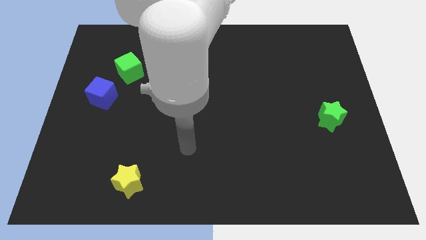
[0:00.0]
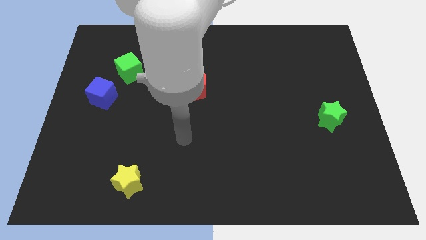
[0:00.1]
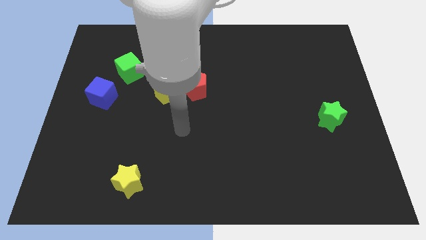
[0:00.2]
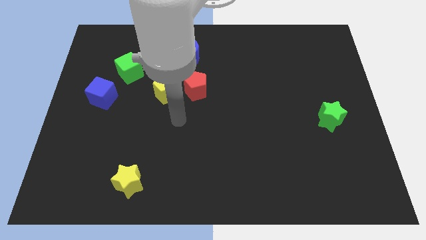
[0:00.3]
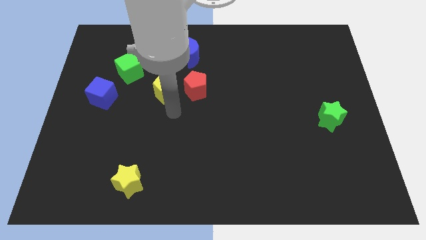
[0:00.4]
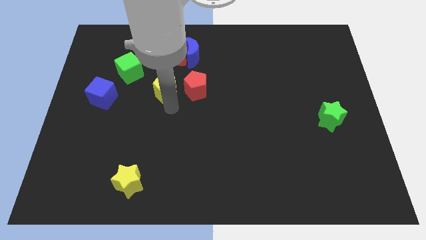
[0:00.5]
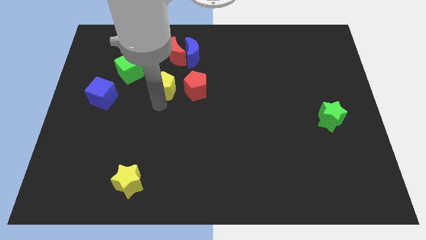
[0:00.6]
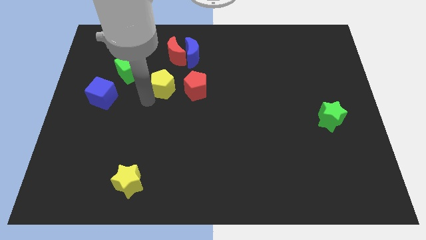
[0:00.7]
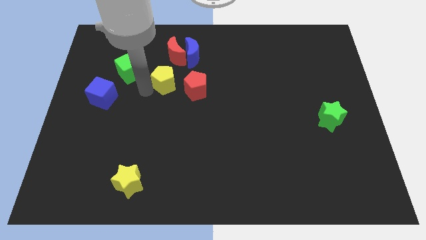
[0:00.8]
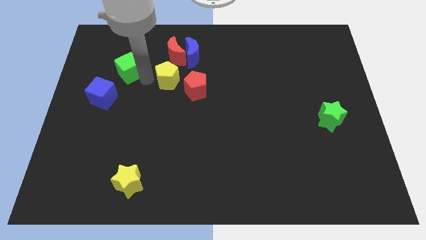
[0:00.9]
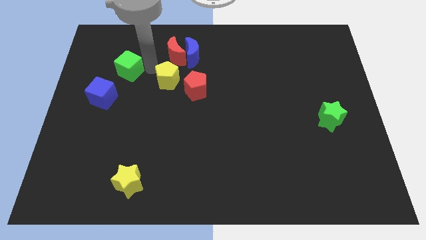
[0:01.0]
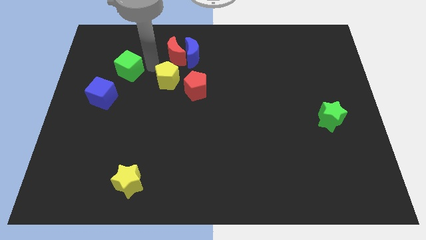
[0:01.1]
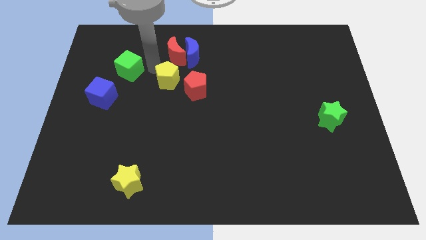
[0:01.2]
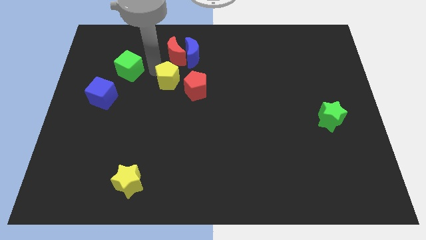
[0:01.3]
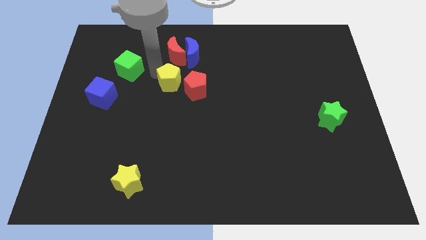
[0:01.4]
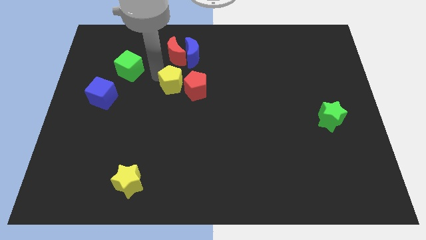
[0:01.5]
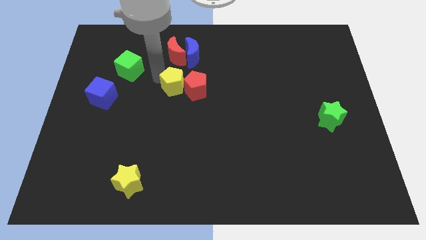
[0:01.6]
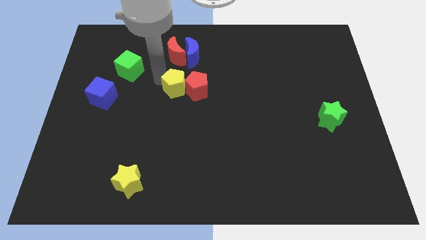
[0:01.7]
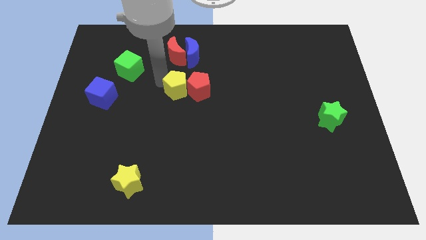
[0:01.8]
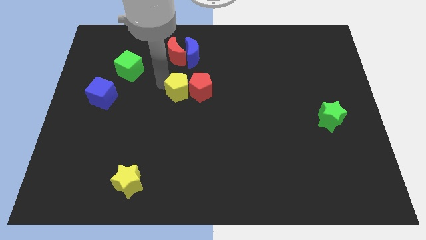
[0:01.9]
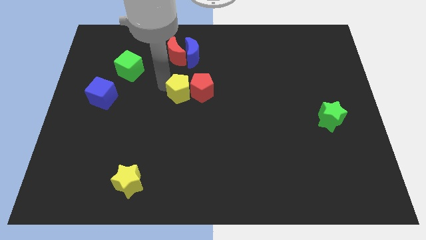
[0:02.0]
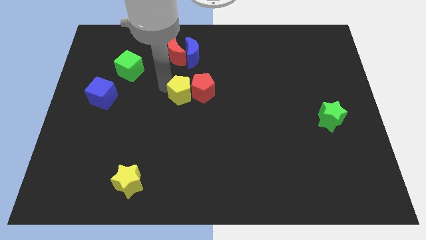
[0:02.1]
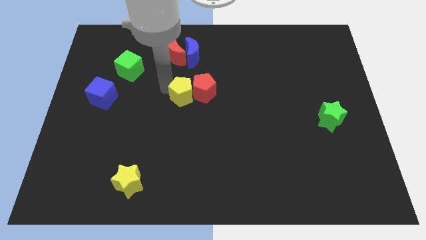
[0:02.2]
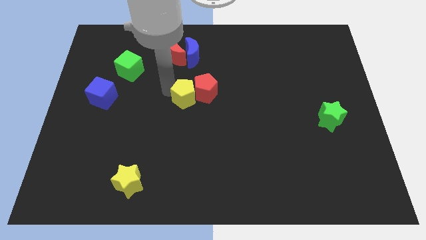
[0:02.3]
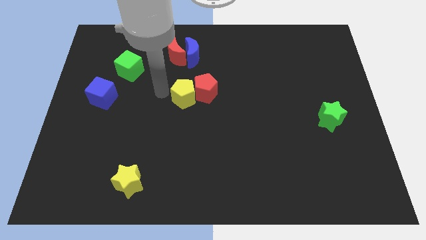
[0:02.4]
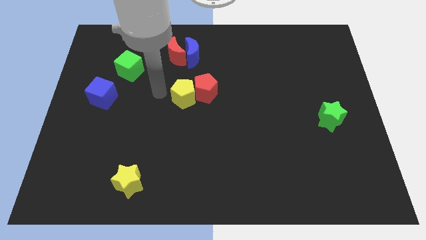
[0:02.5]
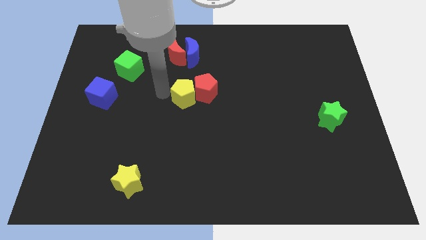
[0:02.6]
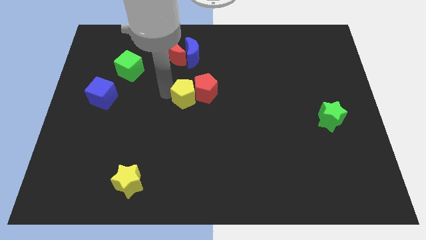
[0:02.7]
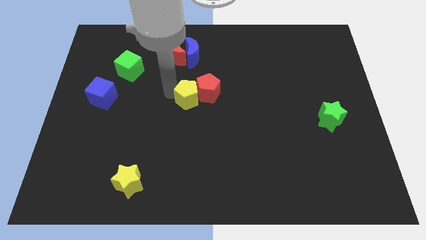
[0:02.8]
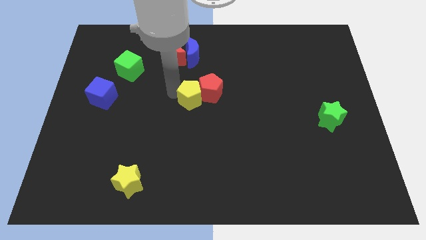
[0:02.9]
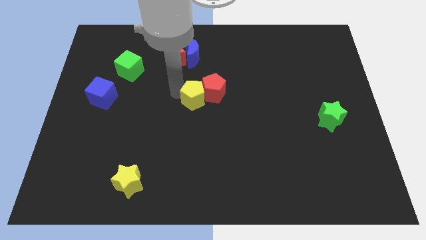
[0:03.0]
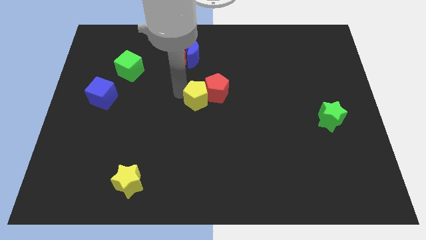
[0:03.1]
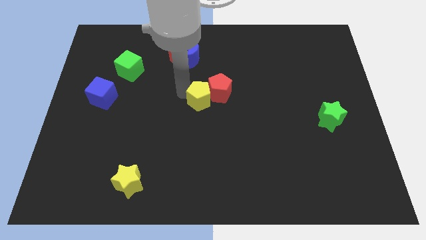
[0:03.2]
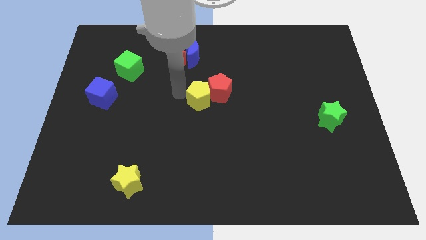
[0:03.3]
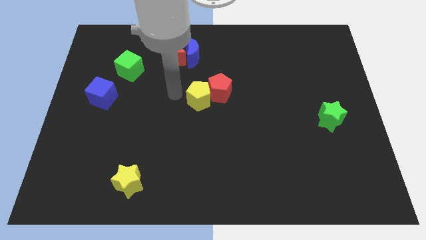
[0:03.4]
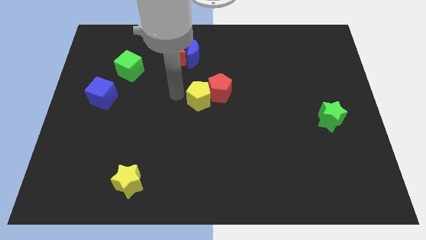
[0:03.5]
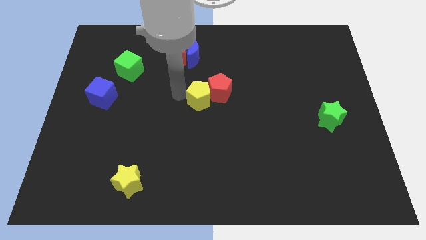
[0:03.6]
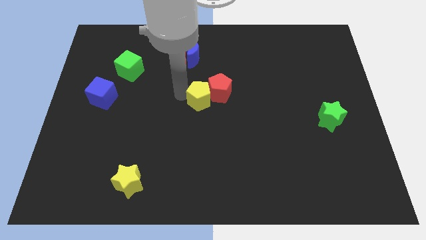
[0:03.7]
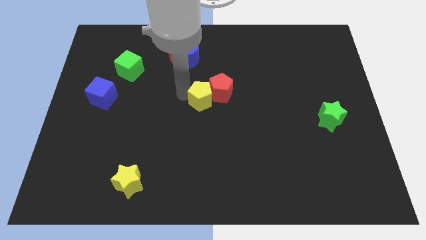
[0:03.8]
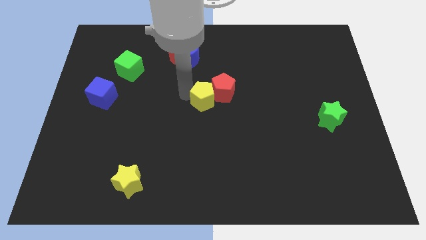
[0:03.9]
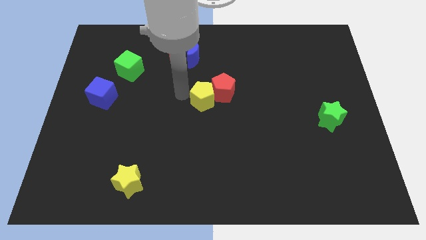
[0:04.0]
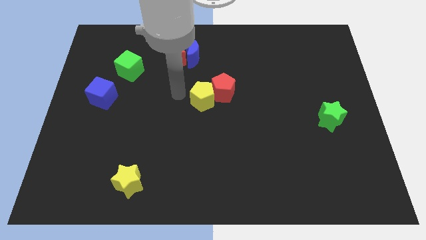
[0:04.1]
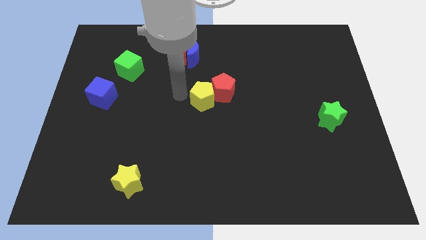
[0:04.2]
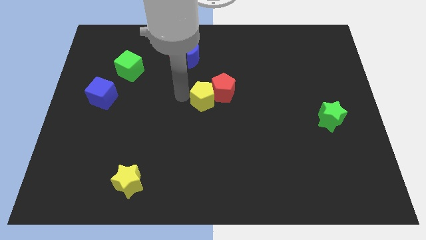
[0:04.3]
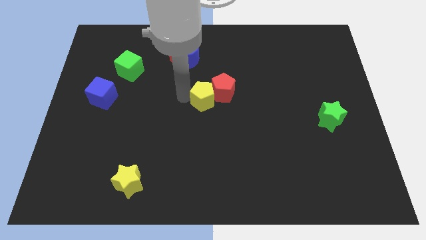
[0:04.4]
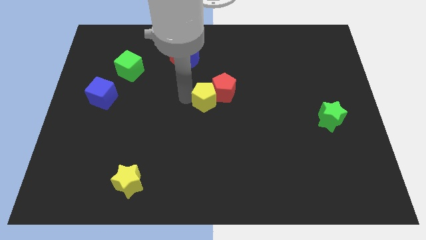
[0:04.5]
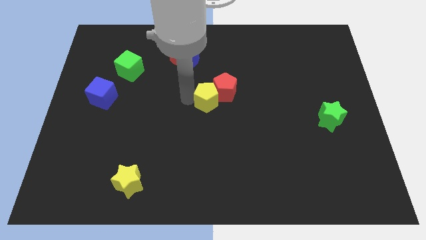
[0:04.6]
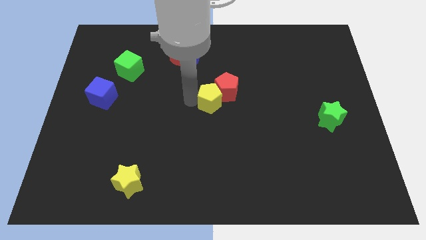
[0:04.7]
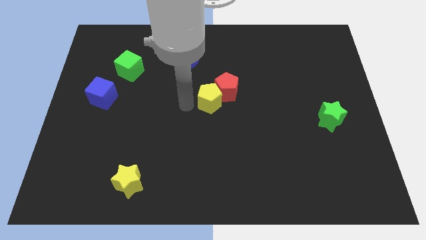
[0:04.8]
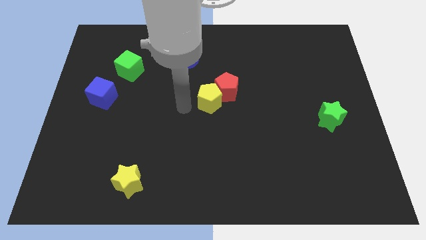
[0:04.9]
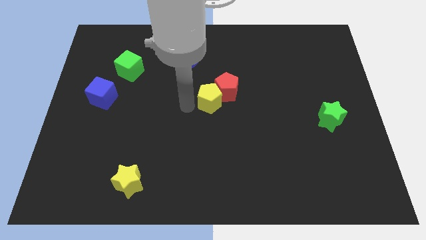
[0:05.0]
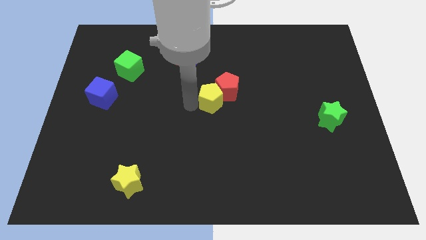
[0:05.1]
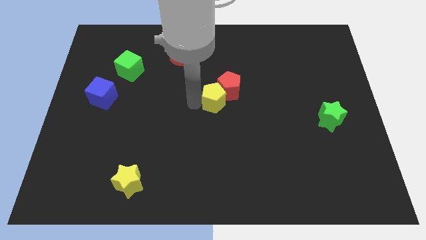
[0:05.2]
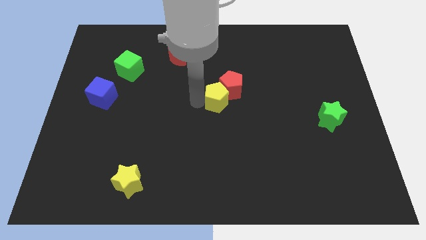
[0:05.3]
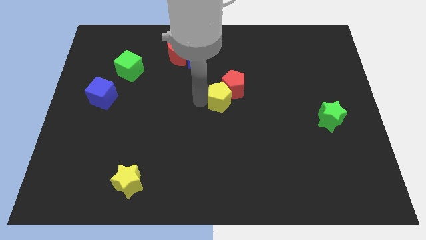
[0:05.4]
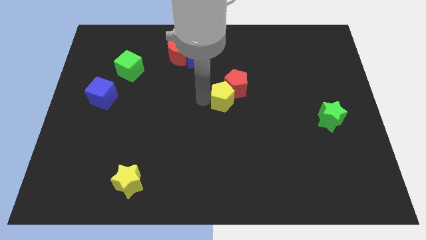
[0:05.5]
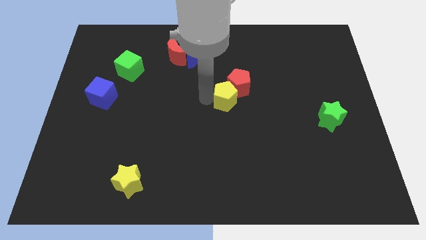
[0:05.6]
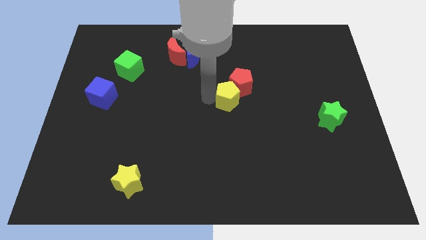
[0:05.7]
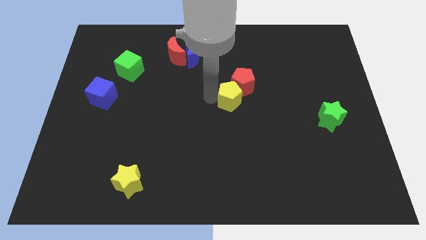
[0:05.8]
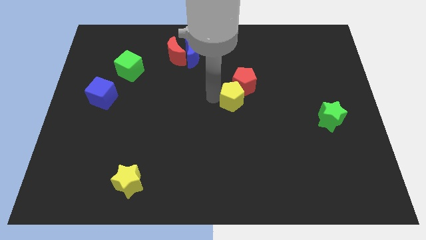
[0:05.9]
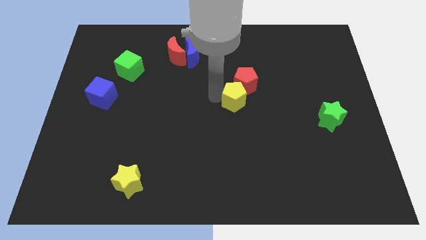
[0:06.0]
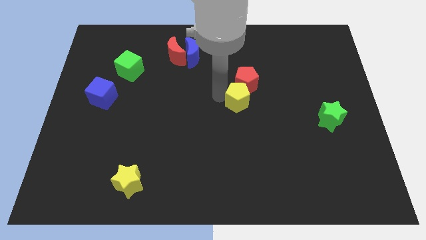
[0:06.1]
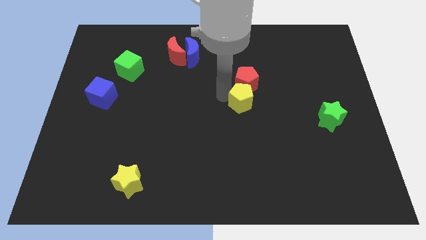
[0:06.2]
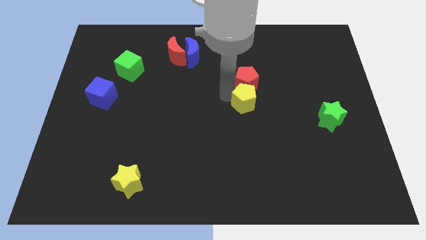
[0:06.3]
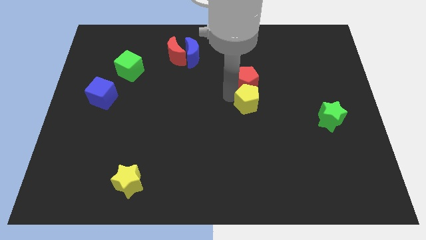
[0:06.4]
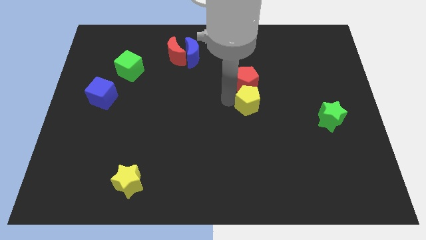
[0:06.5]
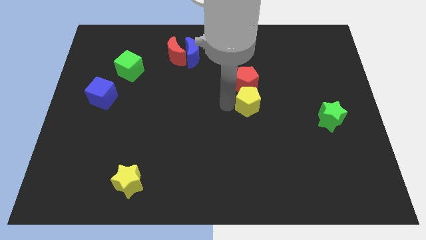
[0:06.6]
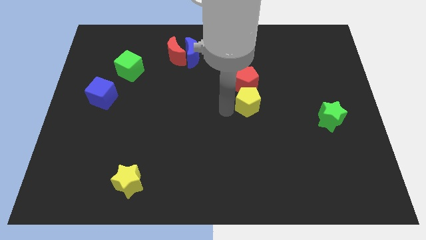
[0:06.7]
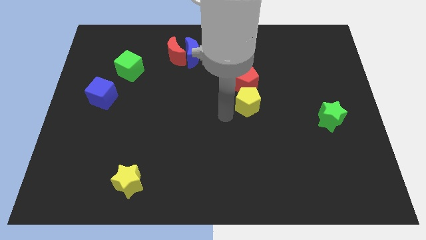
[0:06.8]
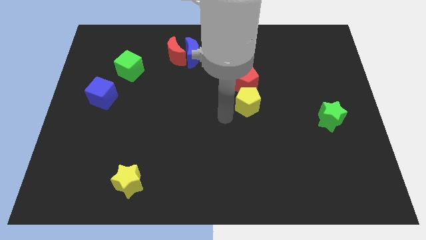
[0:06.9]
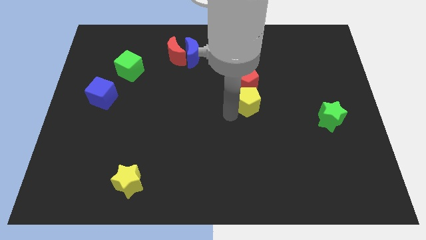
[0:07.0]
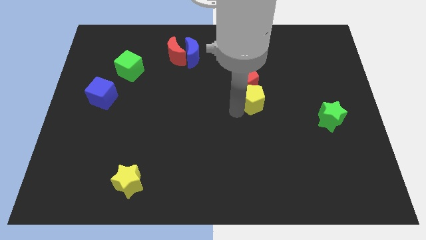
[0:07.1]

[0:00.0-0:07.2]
push the yellow pentagon to the right

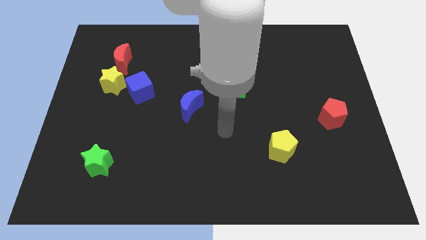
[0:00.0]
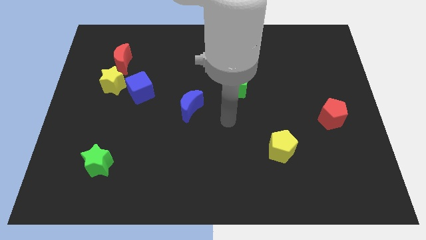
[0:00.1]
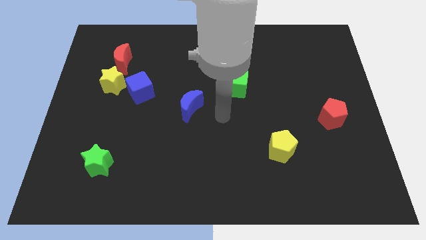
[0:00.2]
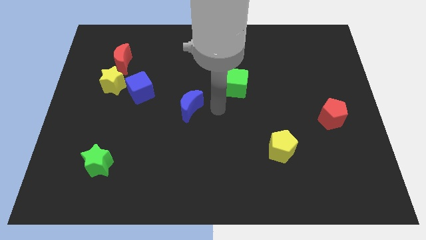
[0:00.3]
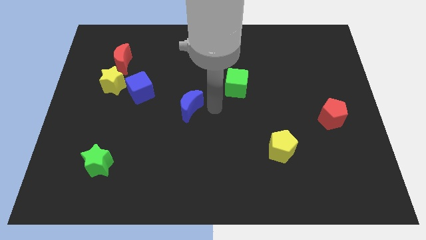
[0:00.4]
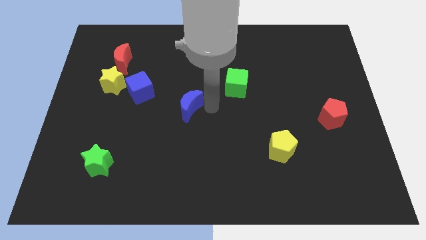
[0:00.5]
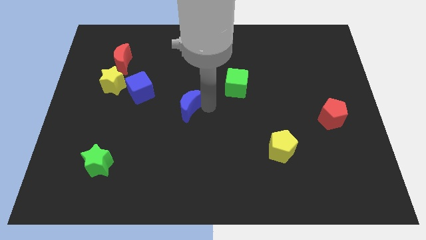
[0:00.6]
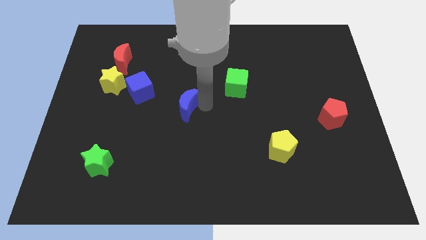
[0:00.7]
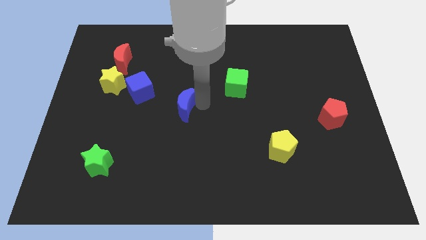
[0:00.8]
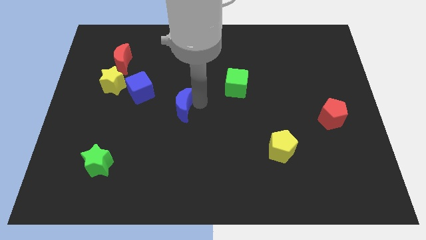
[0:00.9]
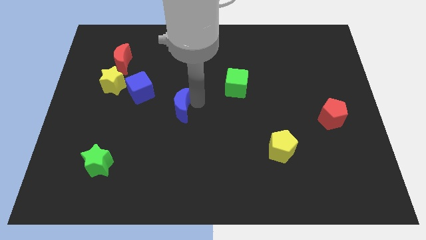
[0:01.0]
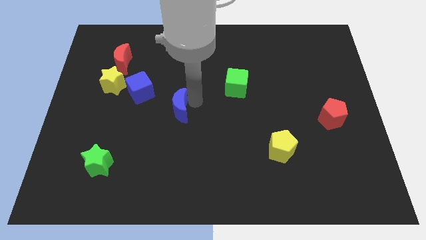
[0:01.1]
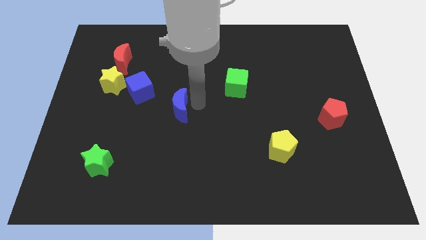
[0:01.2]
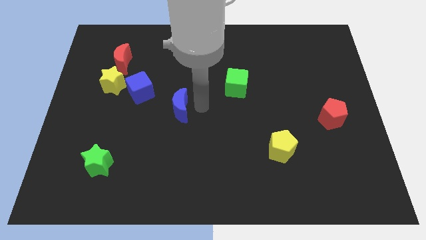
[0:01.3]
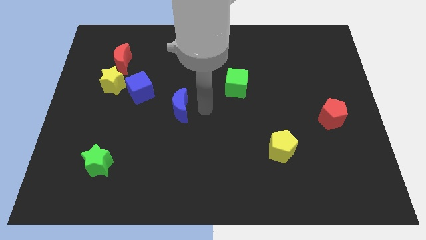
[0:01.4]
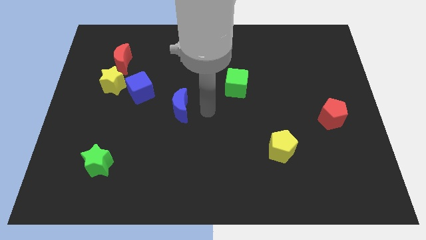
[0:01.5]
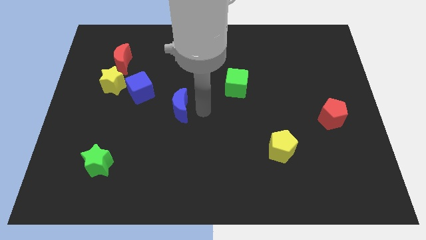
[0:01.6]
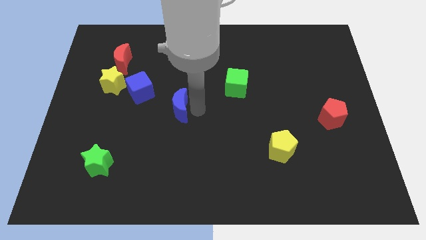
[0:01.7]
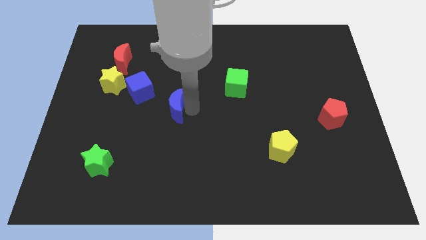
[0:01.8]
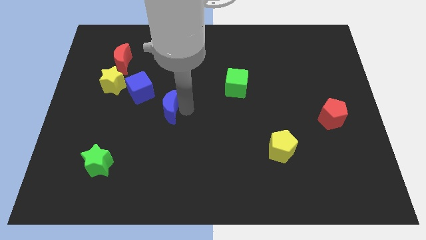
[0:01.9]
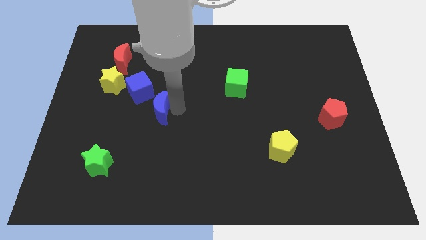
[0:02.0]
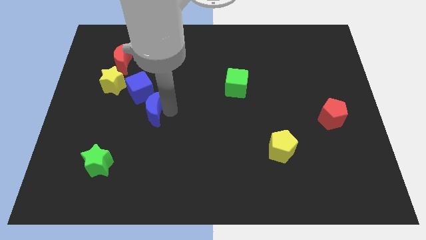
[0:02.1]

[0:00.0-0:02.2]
slightly move the blue moon left
